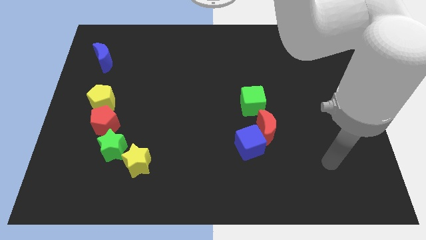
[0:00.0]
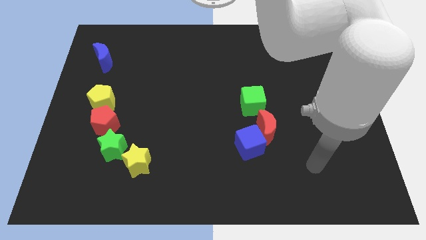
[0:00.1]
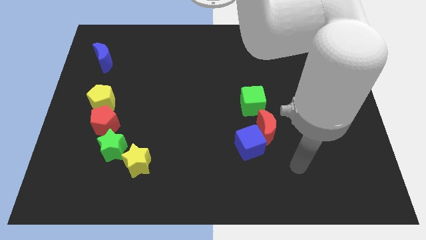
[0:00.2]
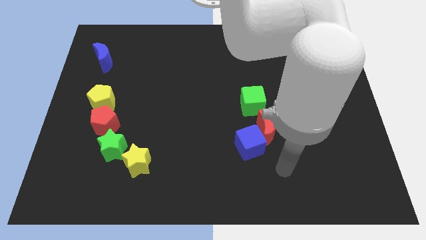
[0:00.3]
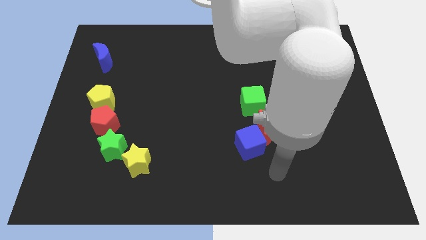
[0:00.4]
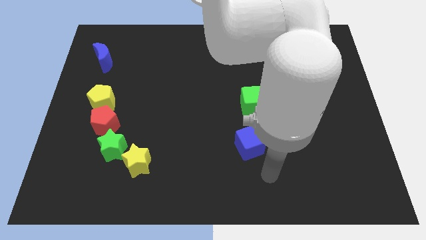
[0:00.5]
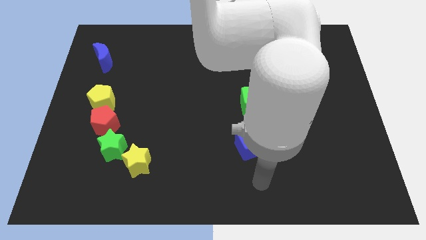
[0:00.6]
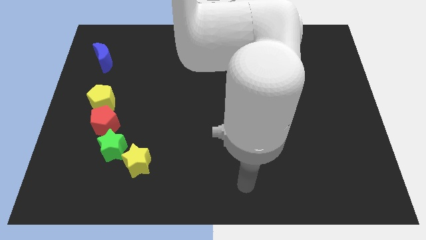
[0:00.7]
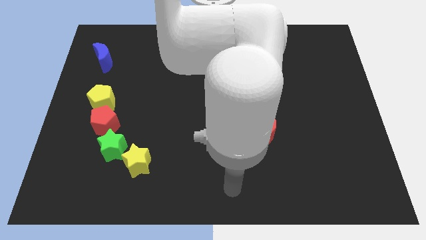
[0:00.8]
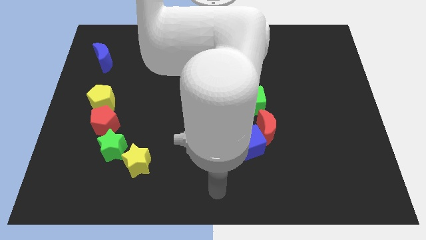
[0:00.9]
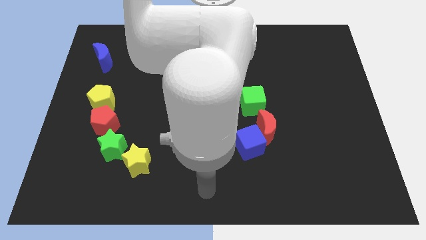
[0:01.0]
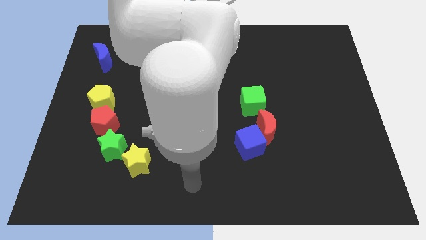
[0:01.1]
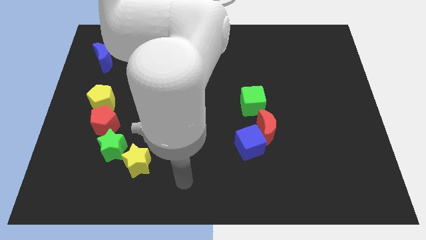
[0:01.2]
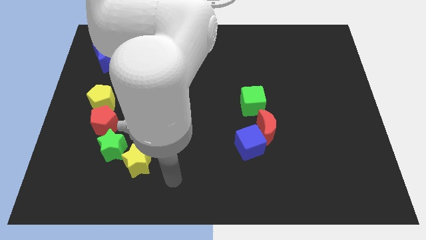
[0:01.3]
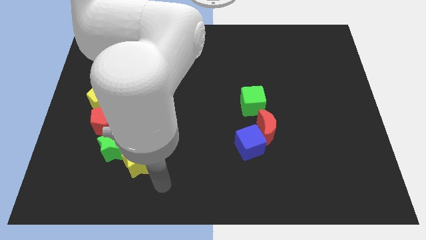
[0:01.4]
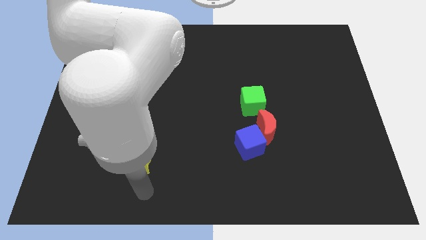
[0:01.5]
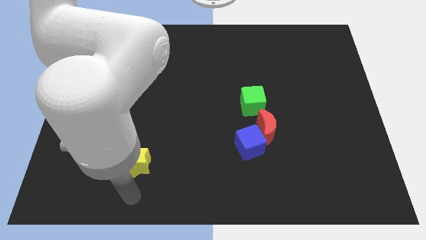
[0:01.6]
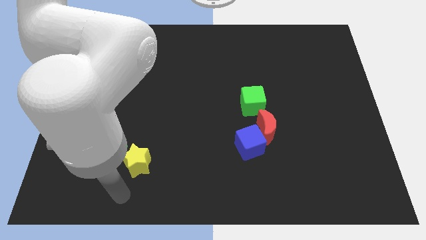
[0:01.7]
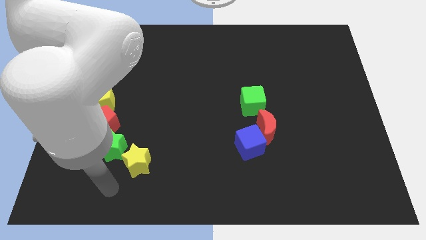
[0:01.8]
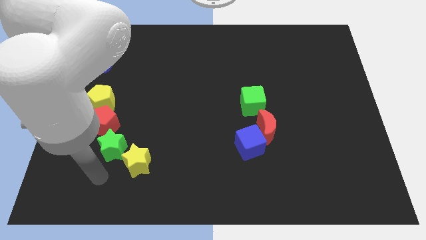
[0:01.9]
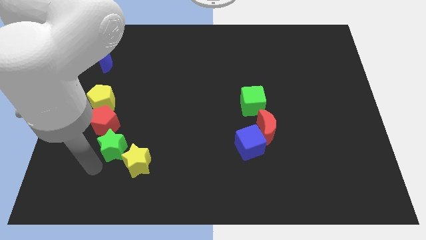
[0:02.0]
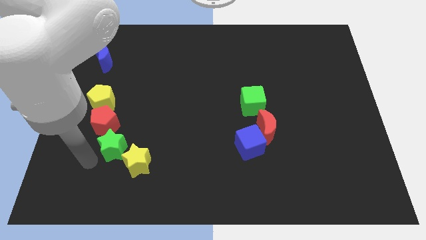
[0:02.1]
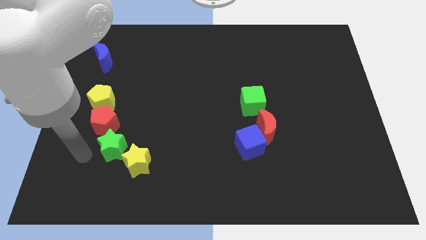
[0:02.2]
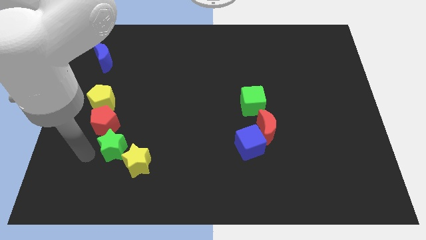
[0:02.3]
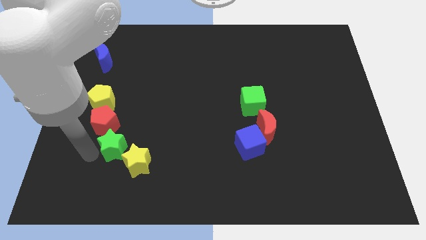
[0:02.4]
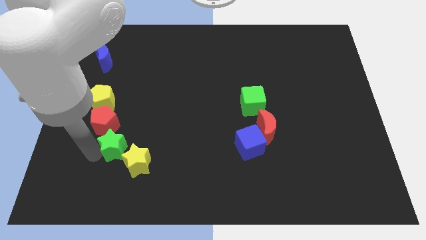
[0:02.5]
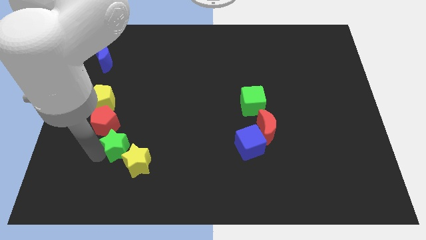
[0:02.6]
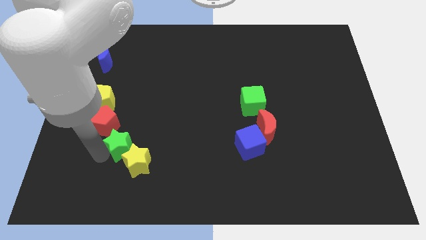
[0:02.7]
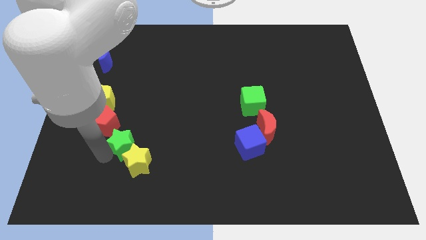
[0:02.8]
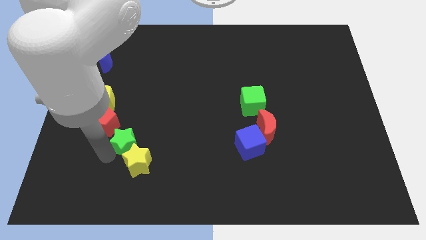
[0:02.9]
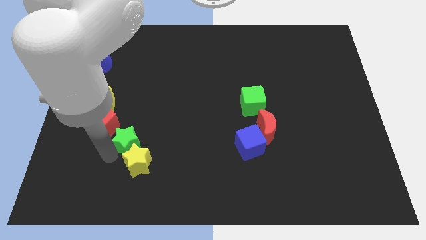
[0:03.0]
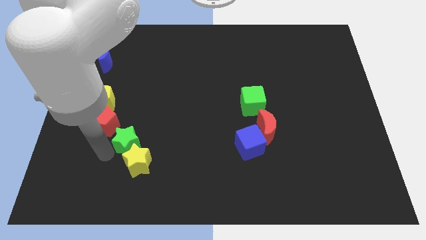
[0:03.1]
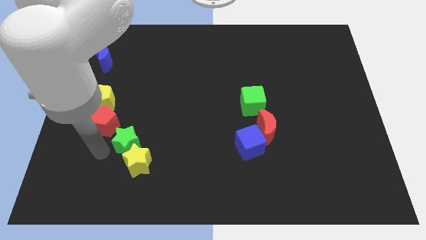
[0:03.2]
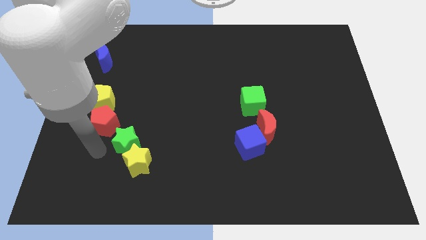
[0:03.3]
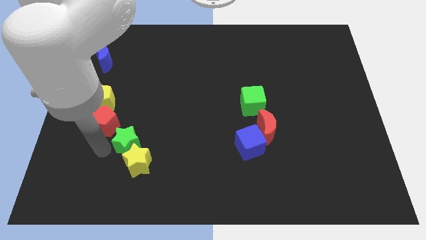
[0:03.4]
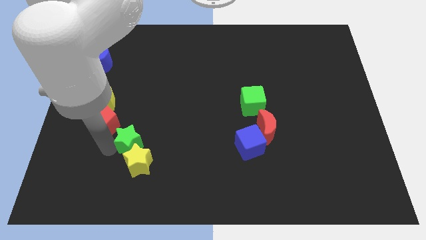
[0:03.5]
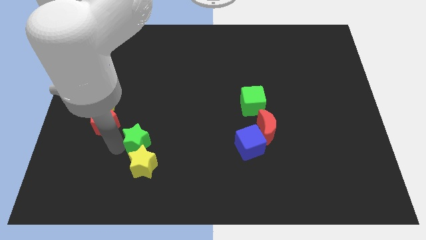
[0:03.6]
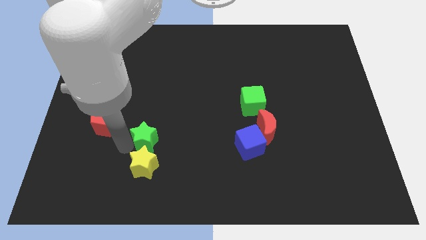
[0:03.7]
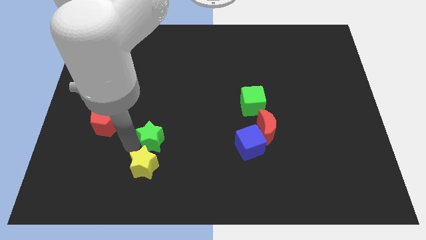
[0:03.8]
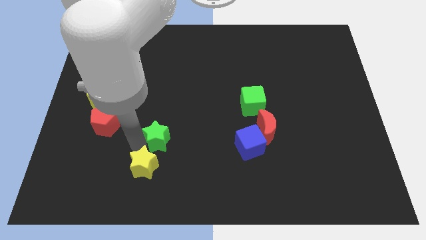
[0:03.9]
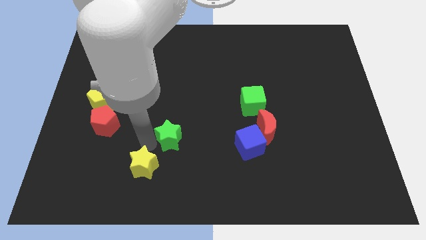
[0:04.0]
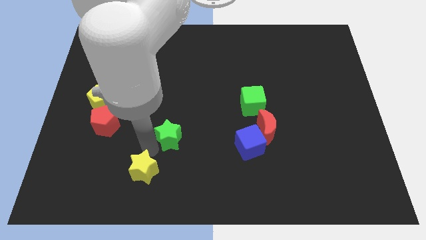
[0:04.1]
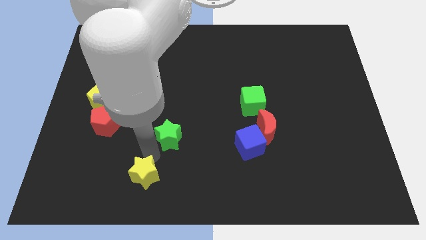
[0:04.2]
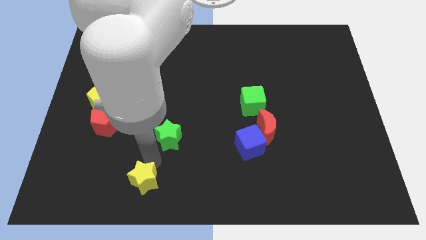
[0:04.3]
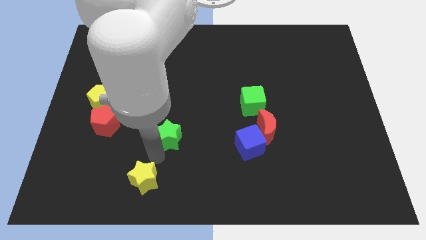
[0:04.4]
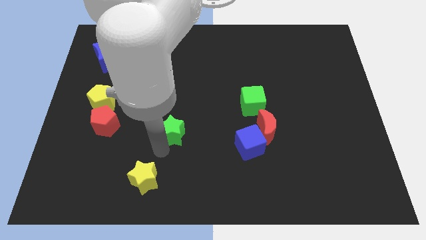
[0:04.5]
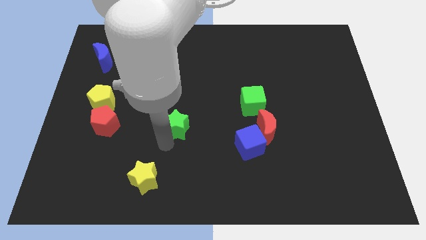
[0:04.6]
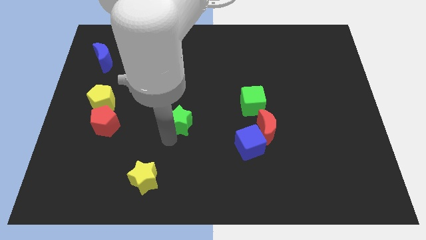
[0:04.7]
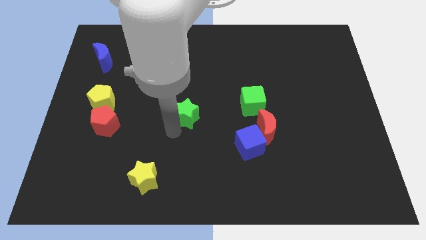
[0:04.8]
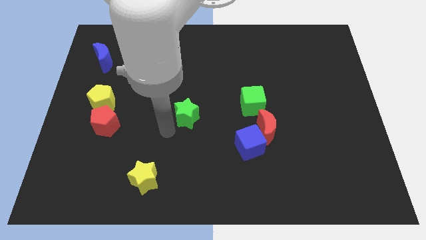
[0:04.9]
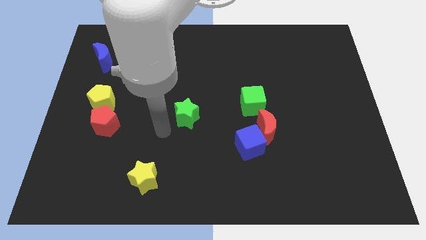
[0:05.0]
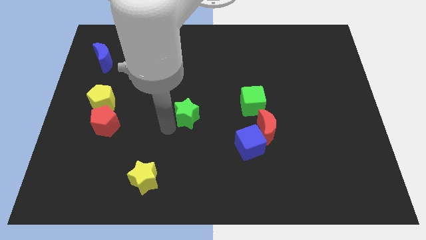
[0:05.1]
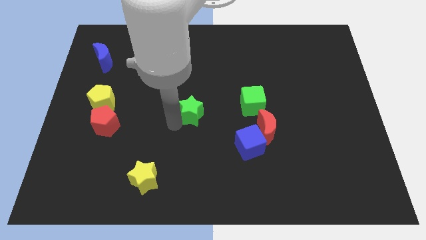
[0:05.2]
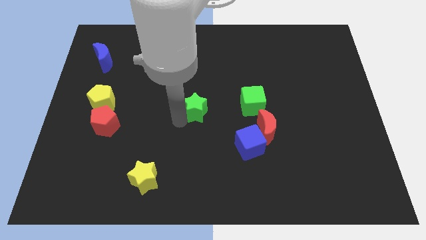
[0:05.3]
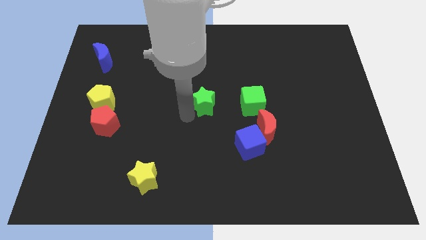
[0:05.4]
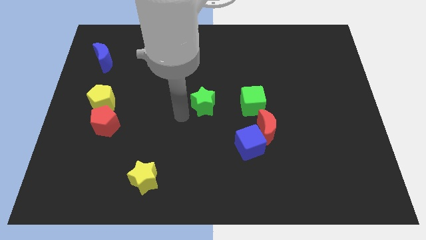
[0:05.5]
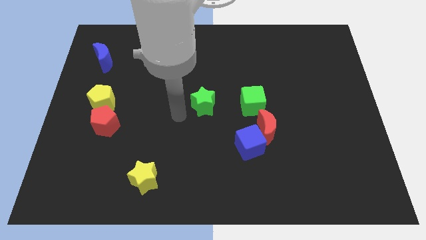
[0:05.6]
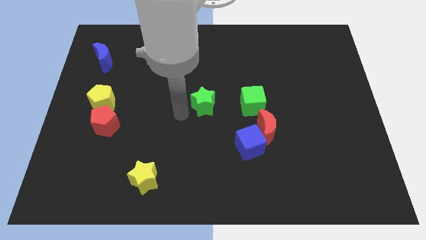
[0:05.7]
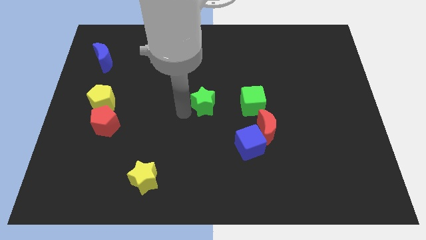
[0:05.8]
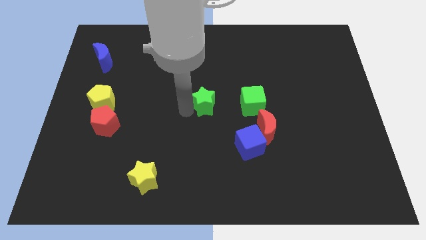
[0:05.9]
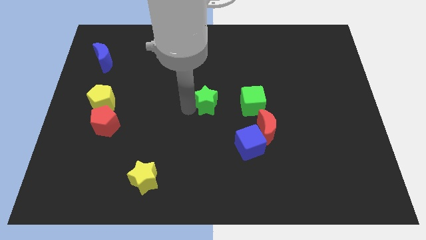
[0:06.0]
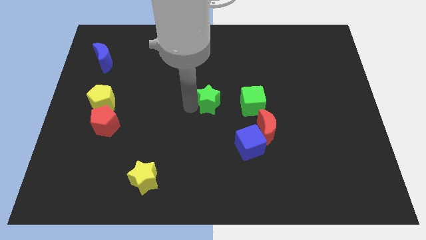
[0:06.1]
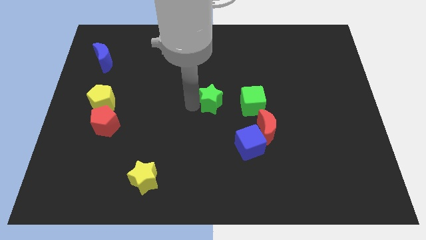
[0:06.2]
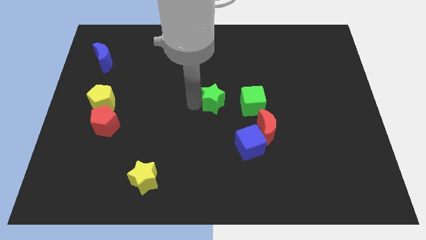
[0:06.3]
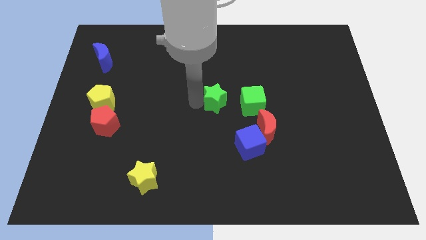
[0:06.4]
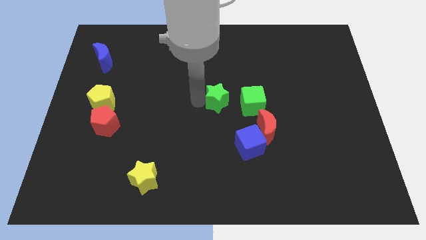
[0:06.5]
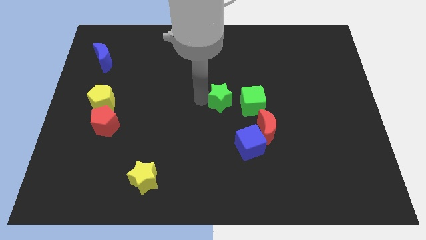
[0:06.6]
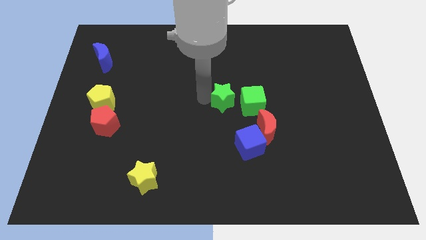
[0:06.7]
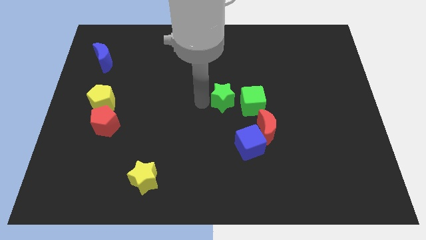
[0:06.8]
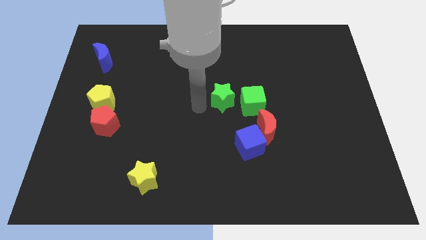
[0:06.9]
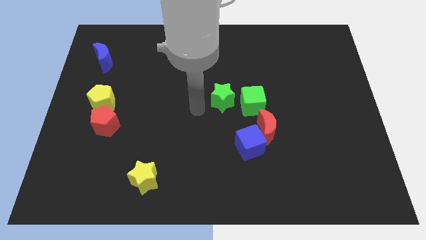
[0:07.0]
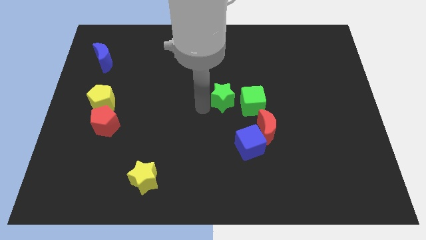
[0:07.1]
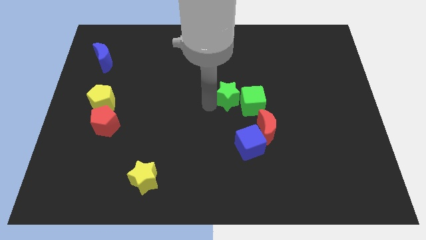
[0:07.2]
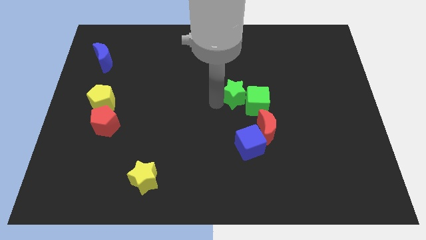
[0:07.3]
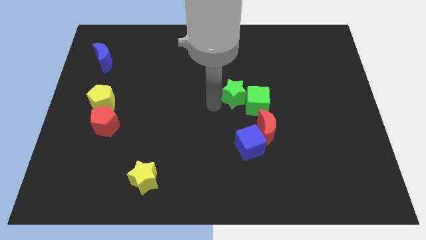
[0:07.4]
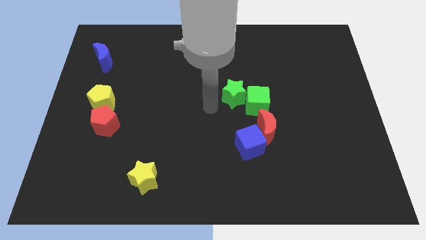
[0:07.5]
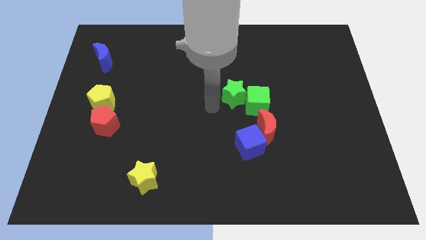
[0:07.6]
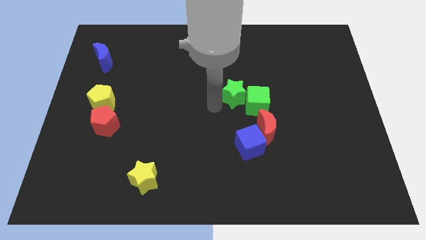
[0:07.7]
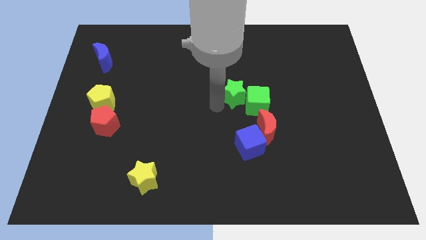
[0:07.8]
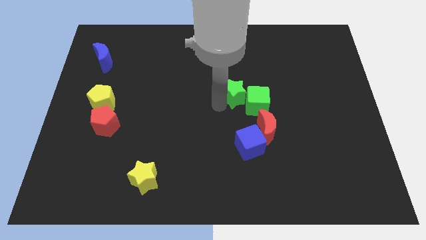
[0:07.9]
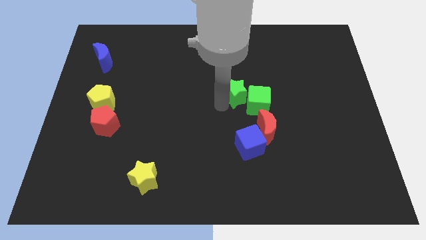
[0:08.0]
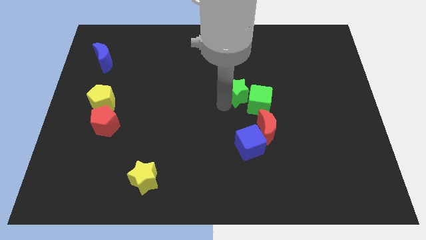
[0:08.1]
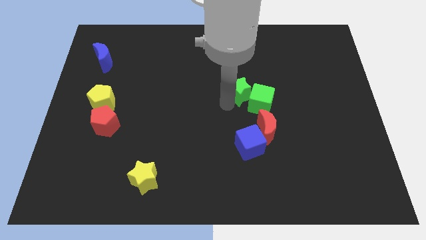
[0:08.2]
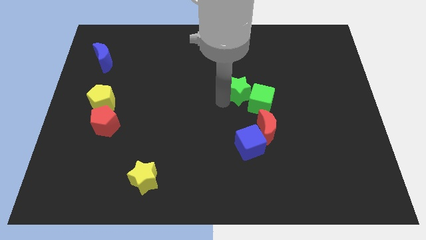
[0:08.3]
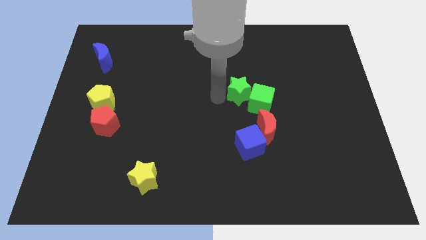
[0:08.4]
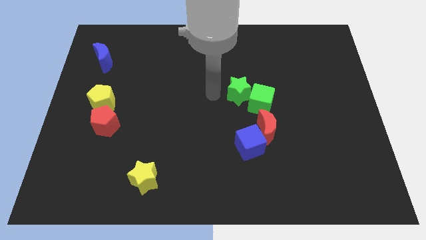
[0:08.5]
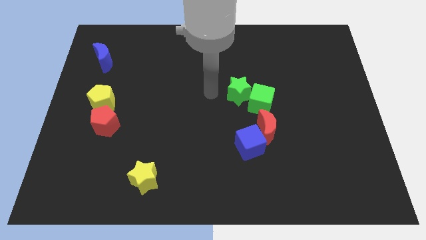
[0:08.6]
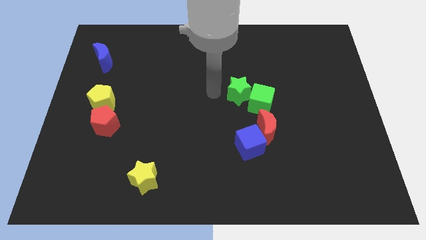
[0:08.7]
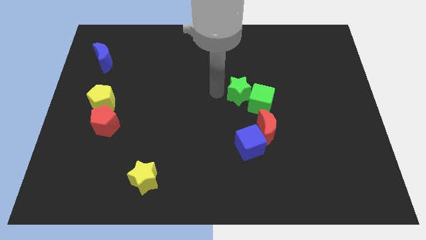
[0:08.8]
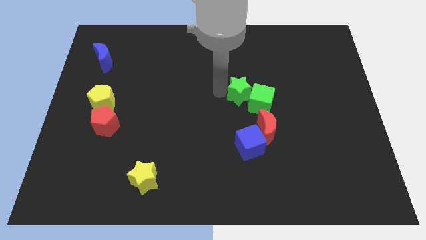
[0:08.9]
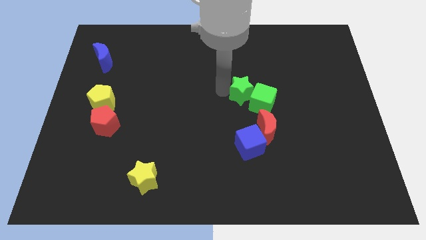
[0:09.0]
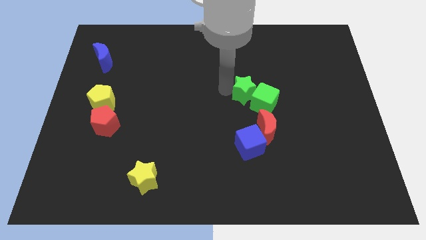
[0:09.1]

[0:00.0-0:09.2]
move the green star above the red moon
